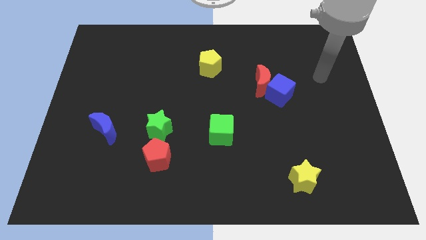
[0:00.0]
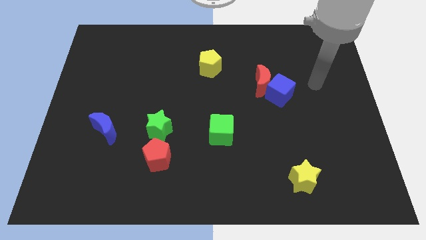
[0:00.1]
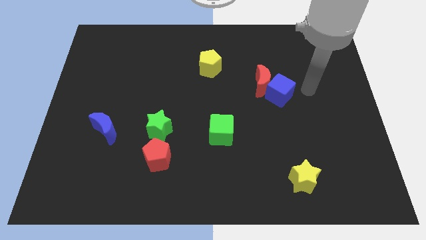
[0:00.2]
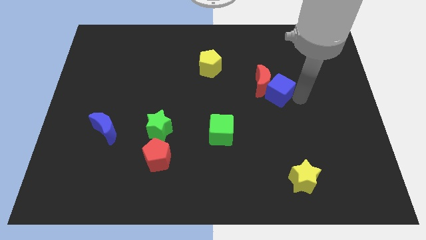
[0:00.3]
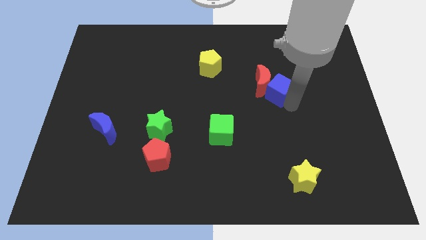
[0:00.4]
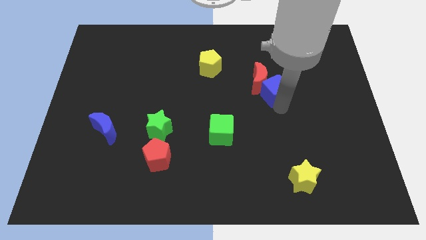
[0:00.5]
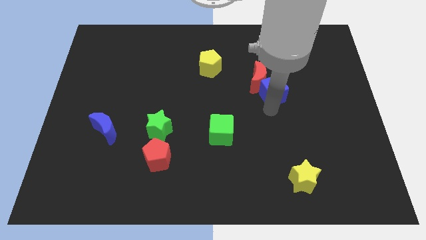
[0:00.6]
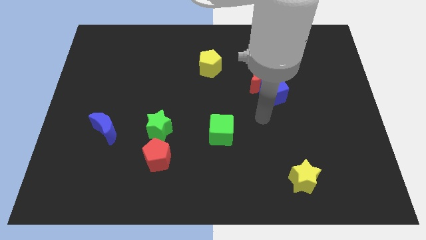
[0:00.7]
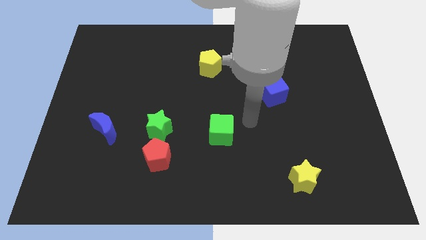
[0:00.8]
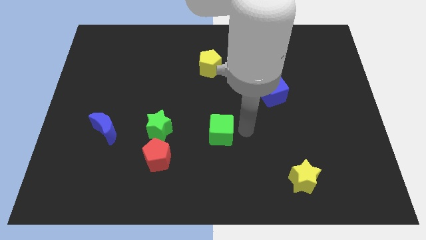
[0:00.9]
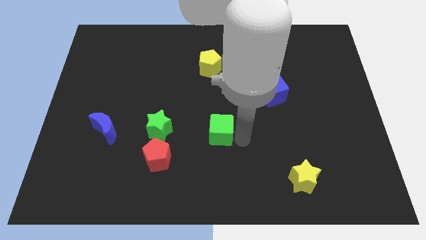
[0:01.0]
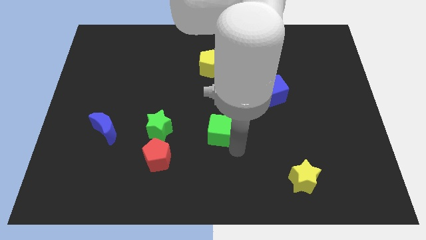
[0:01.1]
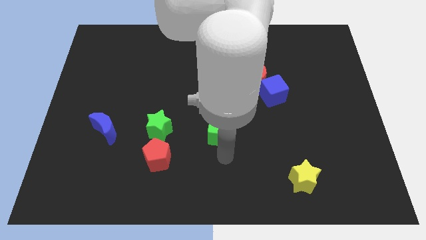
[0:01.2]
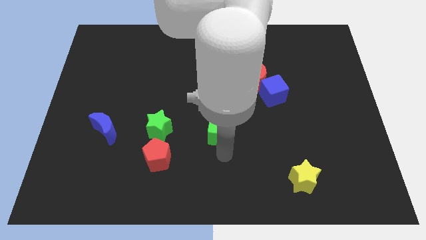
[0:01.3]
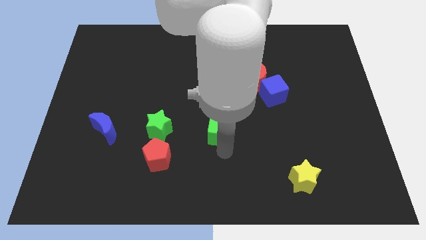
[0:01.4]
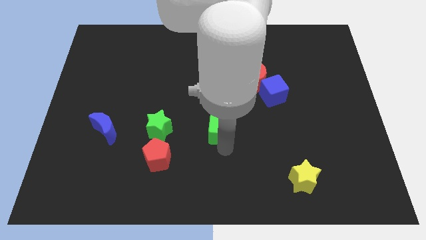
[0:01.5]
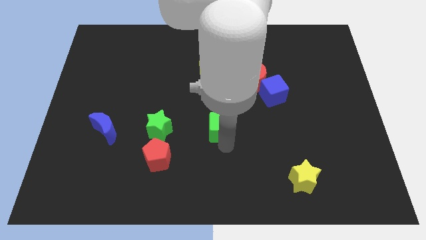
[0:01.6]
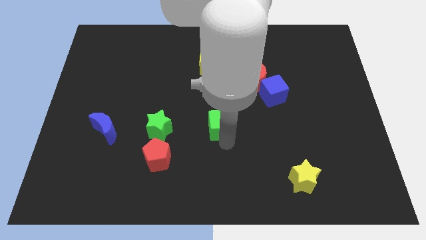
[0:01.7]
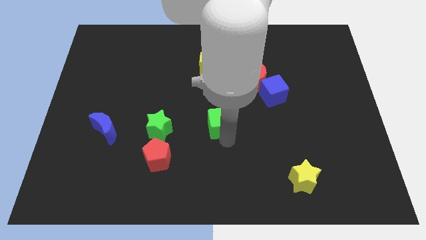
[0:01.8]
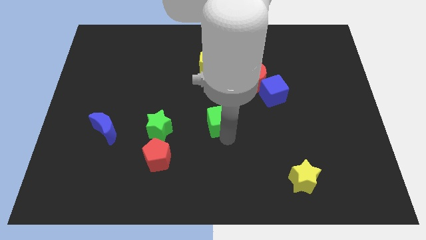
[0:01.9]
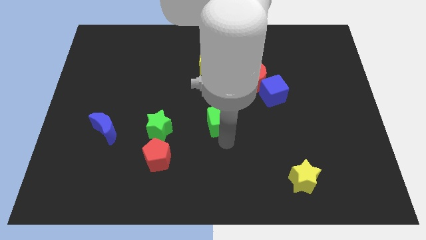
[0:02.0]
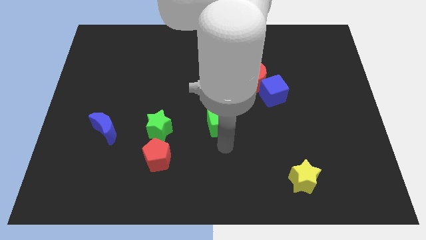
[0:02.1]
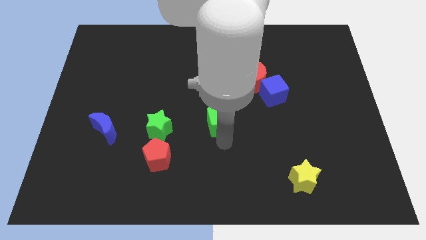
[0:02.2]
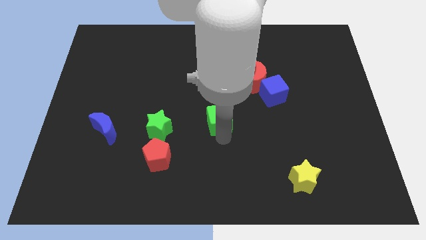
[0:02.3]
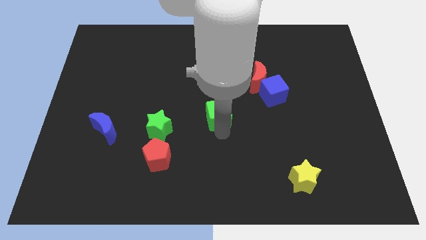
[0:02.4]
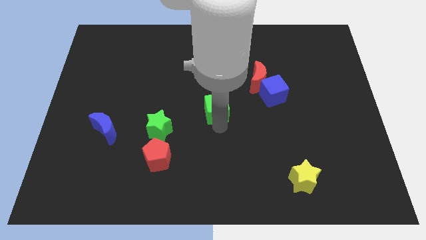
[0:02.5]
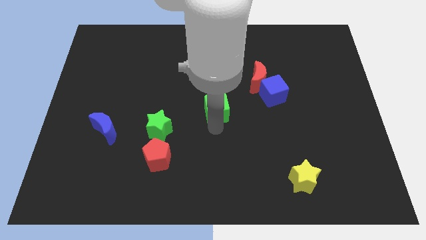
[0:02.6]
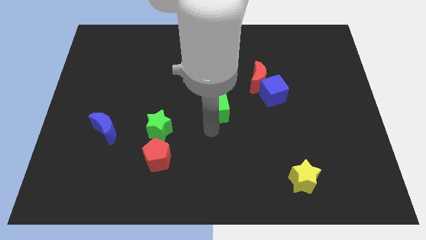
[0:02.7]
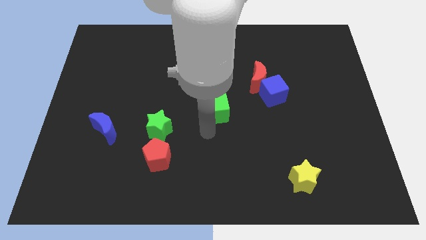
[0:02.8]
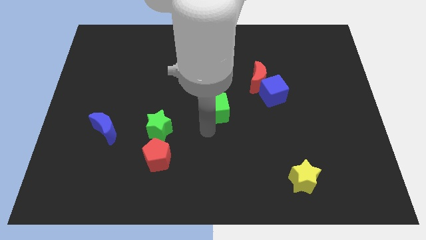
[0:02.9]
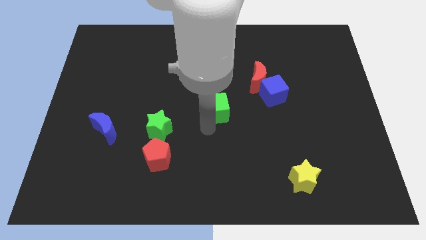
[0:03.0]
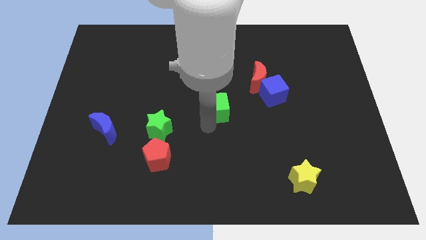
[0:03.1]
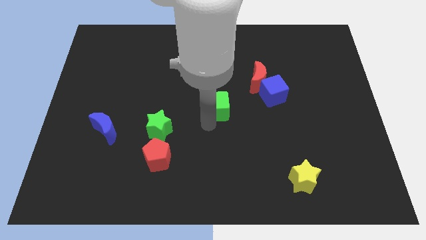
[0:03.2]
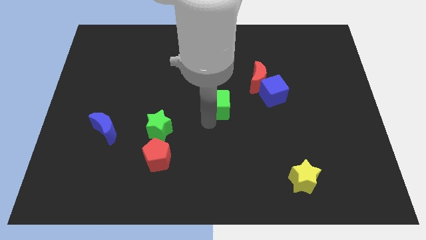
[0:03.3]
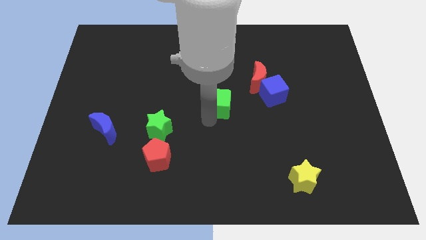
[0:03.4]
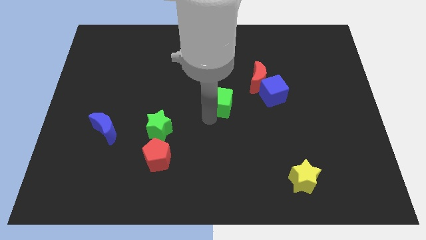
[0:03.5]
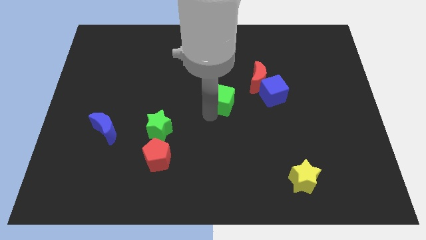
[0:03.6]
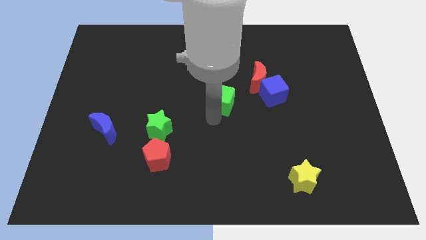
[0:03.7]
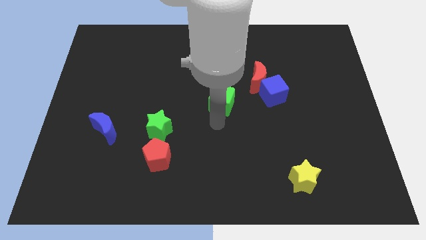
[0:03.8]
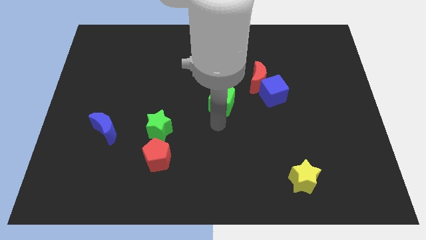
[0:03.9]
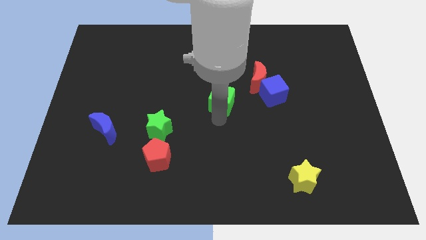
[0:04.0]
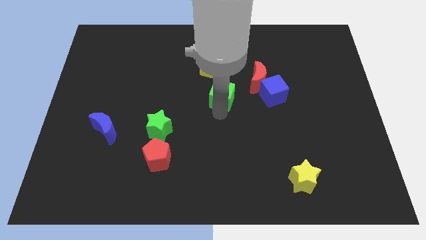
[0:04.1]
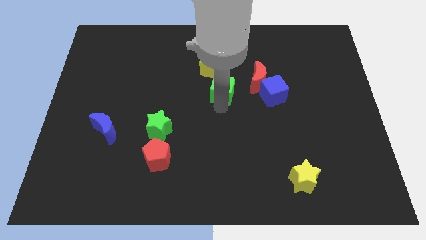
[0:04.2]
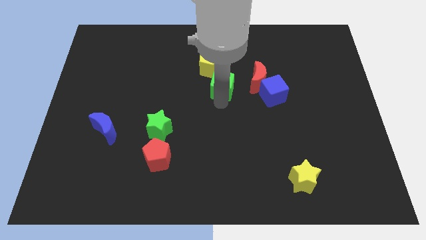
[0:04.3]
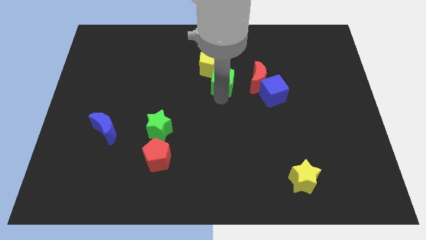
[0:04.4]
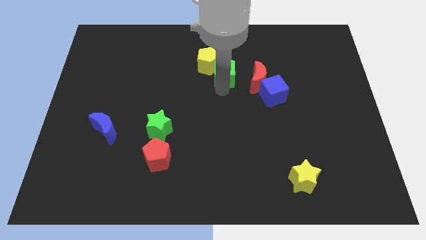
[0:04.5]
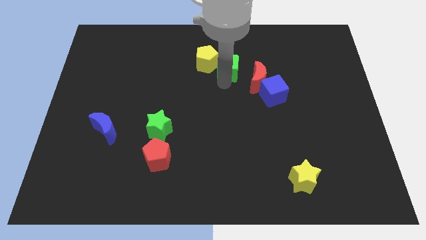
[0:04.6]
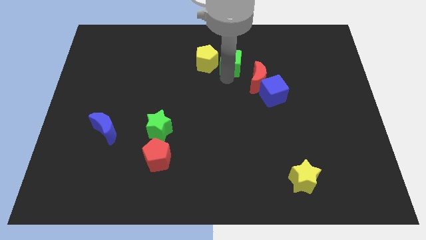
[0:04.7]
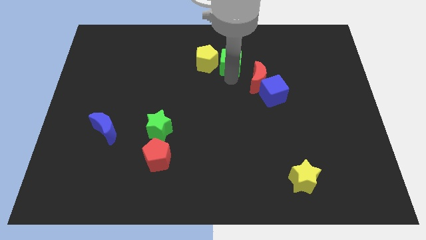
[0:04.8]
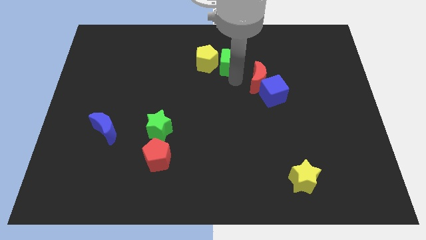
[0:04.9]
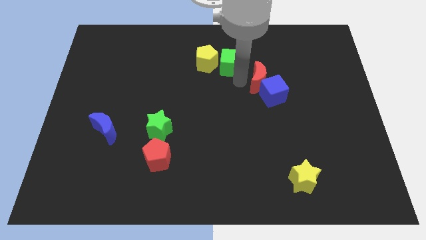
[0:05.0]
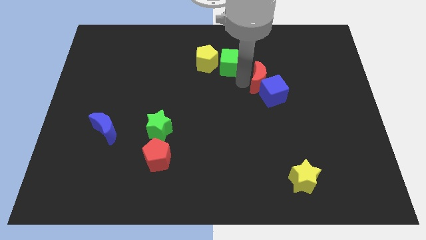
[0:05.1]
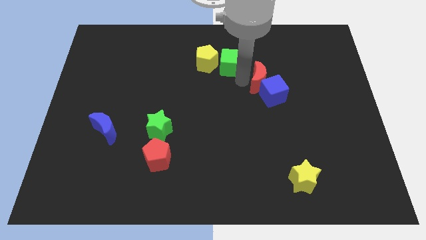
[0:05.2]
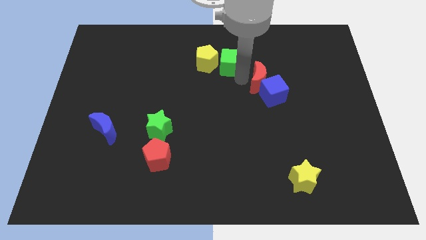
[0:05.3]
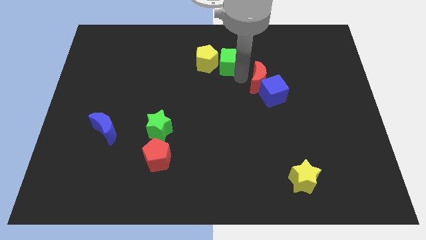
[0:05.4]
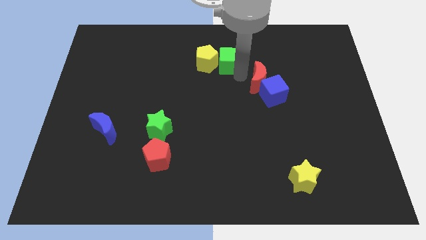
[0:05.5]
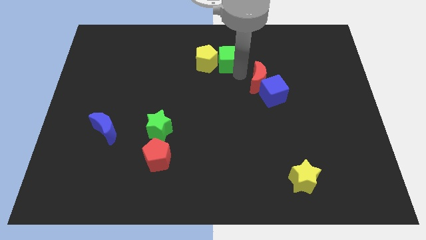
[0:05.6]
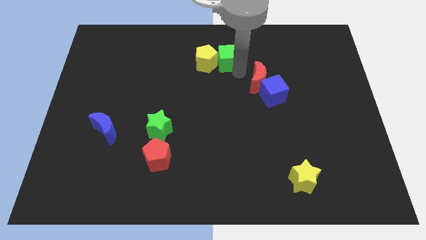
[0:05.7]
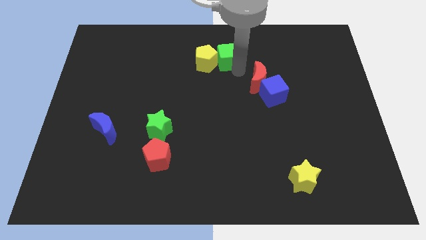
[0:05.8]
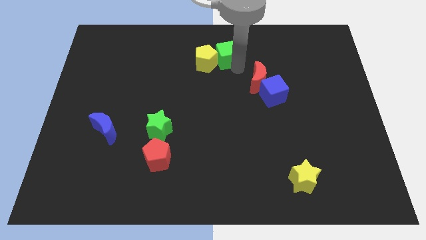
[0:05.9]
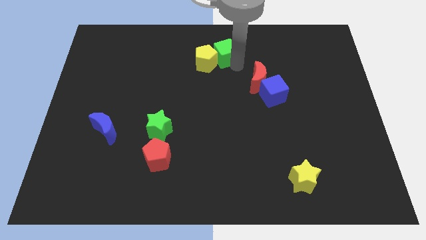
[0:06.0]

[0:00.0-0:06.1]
move the green cube to the top side
